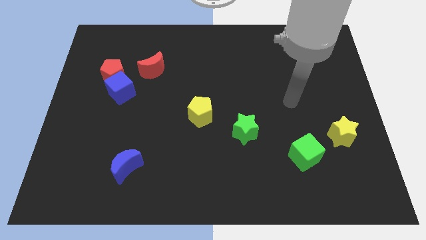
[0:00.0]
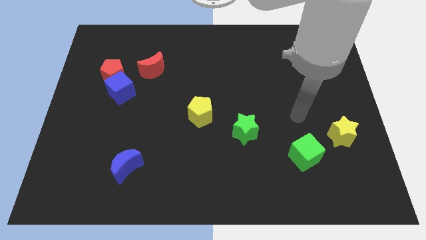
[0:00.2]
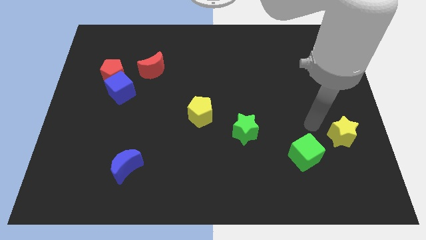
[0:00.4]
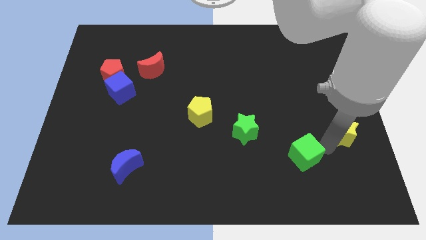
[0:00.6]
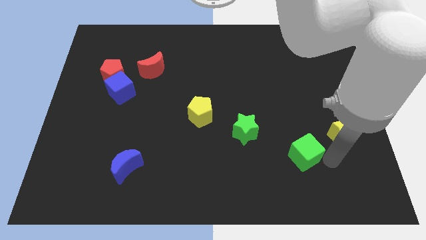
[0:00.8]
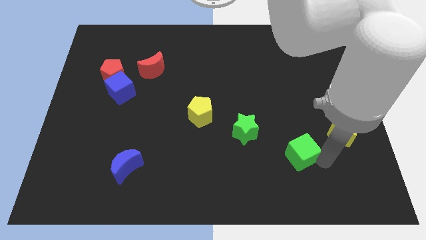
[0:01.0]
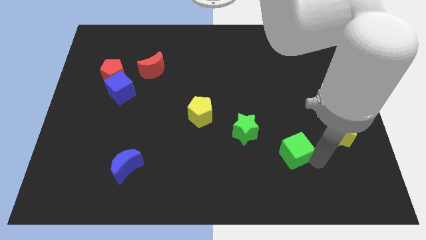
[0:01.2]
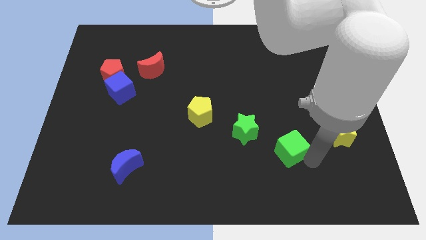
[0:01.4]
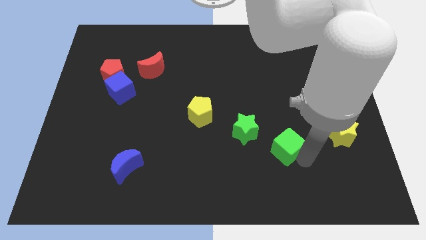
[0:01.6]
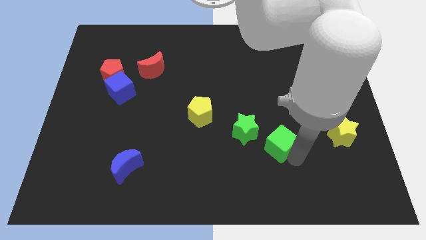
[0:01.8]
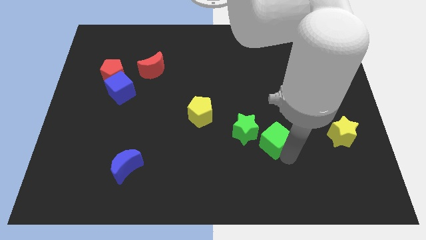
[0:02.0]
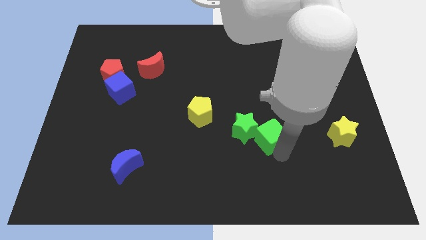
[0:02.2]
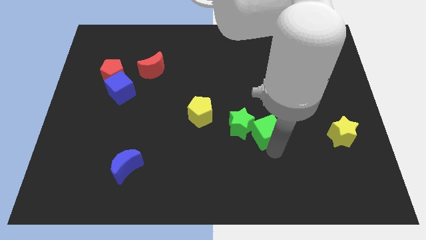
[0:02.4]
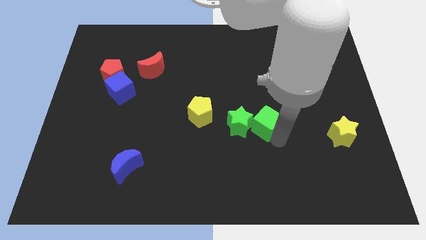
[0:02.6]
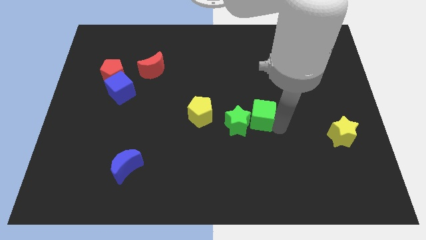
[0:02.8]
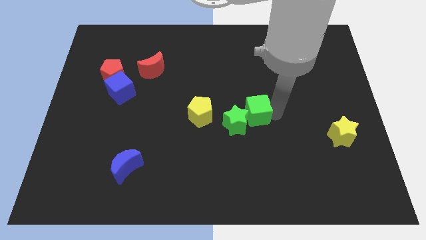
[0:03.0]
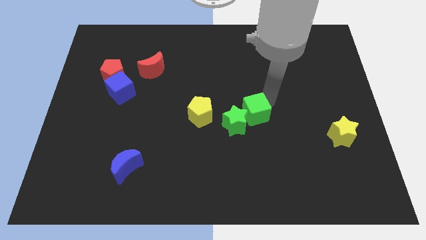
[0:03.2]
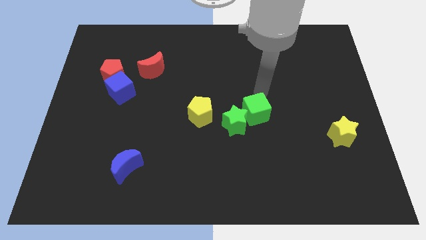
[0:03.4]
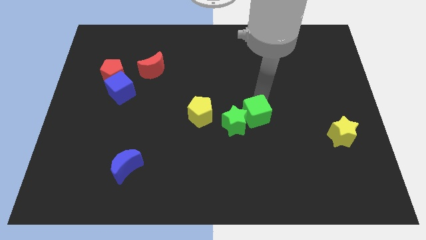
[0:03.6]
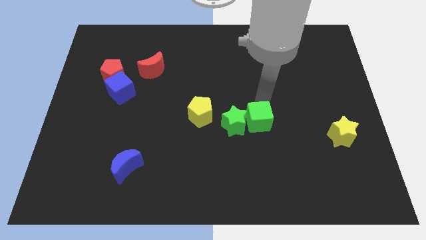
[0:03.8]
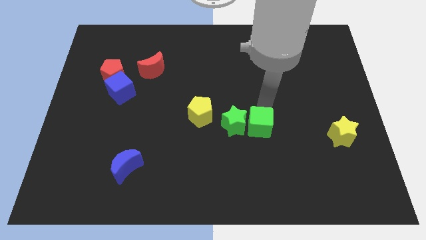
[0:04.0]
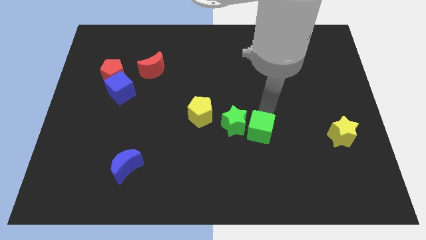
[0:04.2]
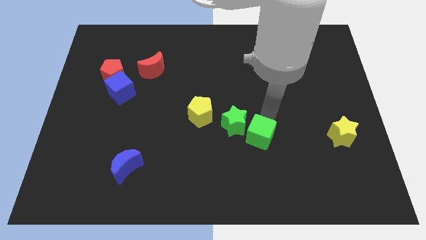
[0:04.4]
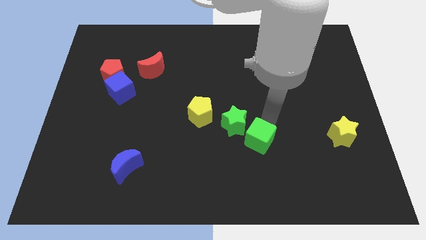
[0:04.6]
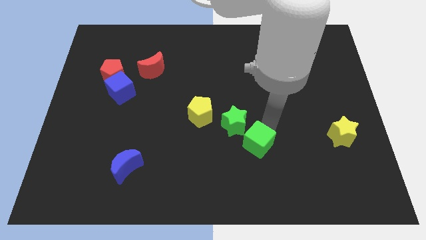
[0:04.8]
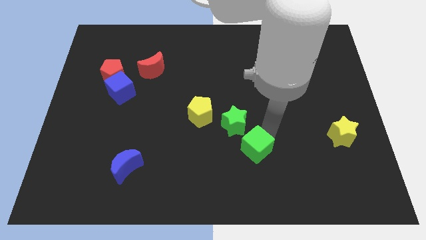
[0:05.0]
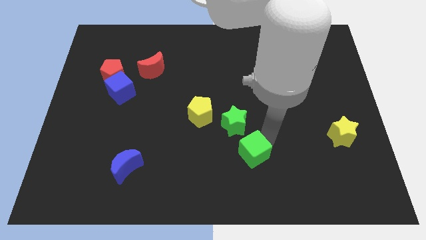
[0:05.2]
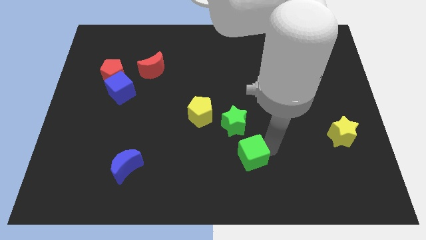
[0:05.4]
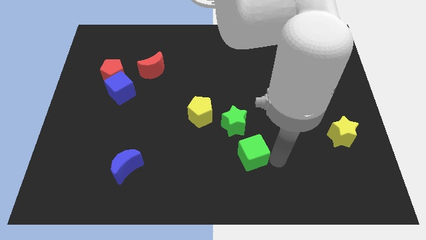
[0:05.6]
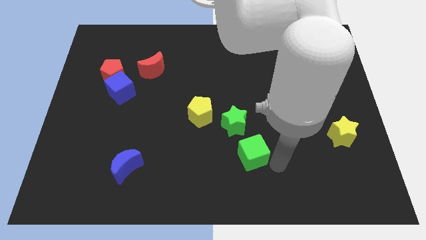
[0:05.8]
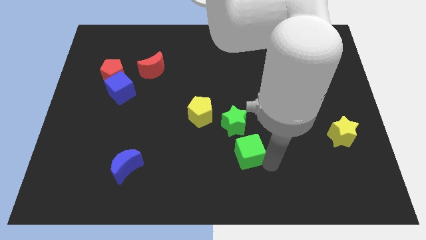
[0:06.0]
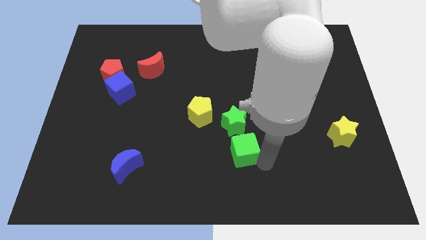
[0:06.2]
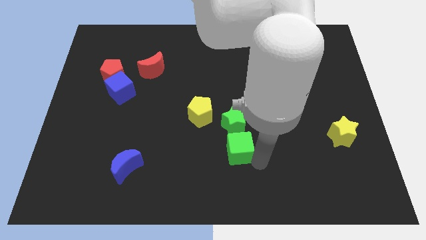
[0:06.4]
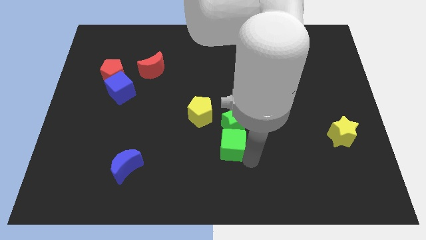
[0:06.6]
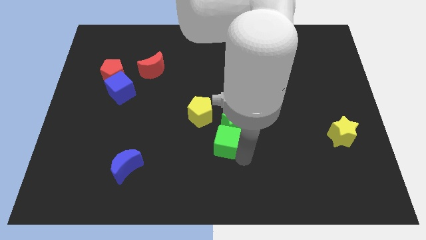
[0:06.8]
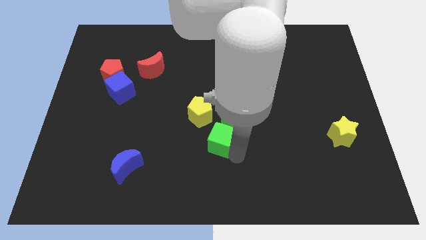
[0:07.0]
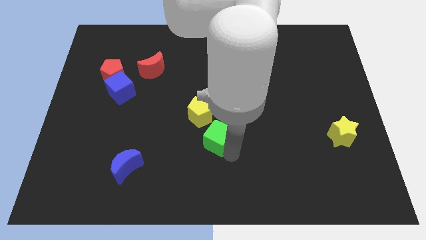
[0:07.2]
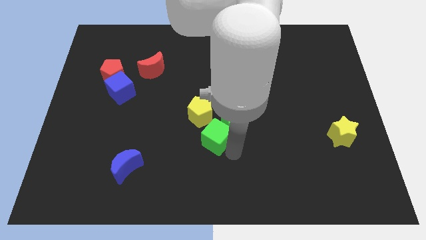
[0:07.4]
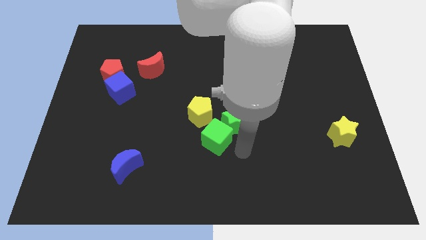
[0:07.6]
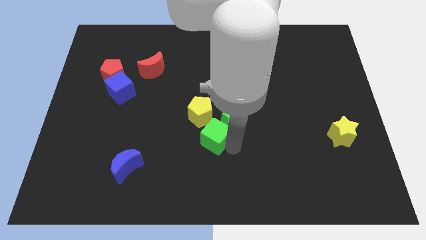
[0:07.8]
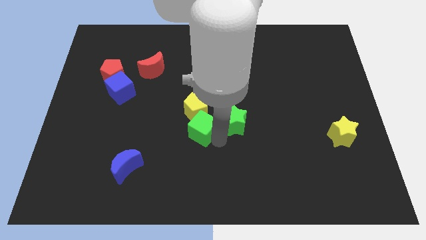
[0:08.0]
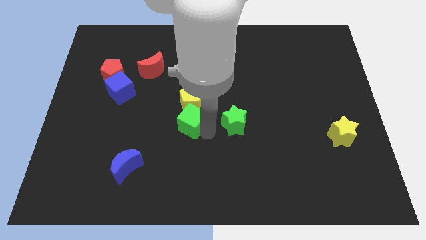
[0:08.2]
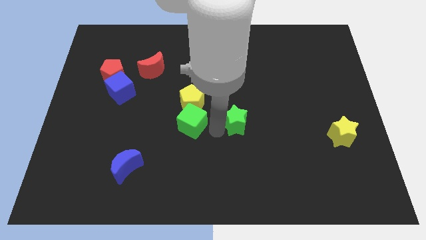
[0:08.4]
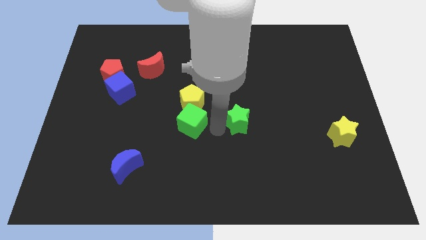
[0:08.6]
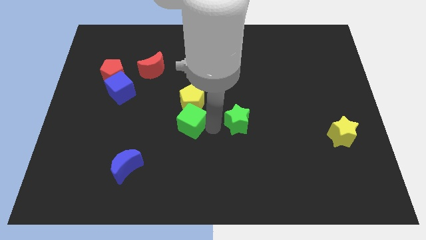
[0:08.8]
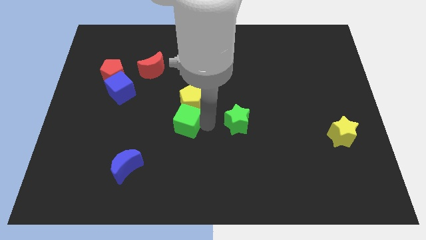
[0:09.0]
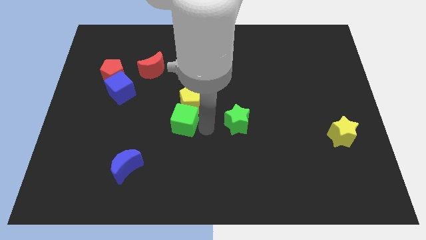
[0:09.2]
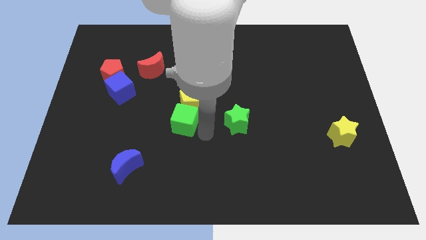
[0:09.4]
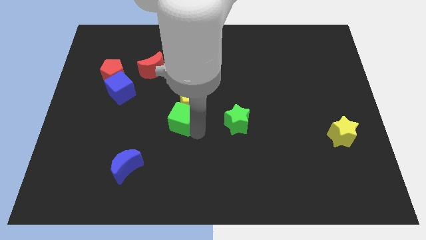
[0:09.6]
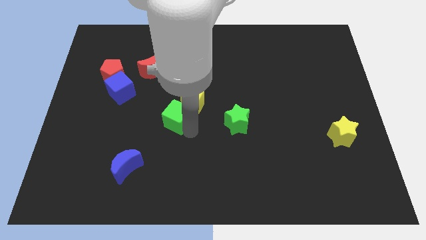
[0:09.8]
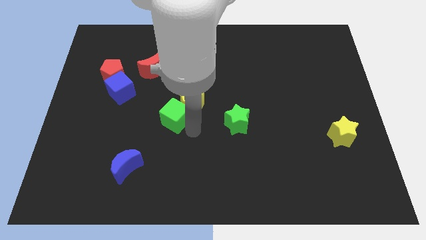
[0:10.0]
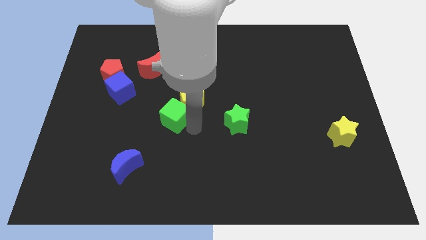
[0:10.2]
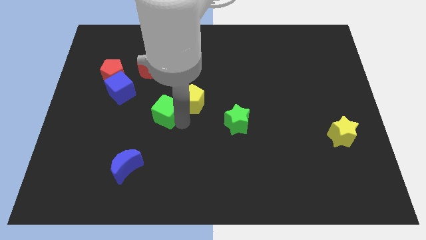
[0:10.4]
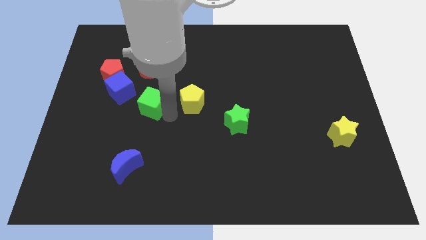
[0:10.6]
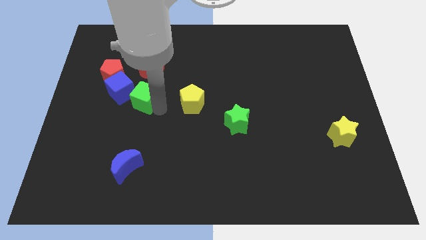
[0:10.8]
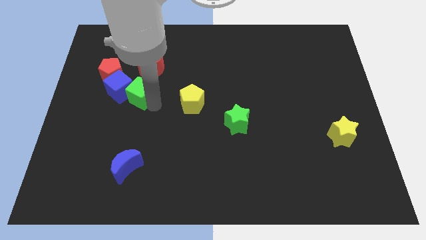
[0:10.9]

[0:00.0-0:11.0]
push the green cube close to the blue cube

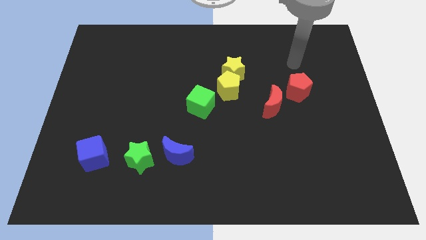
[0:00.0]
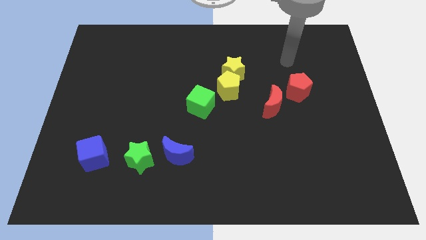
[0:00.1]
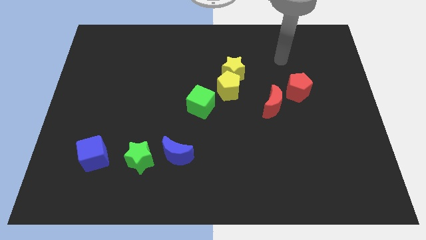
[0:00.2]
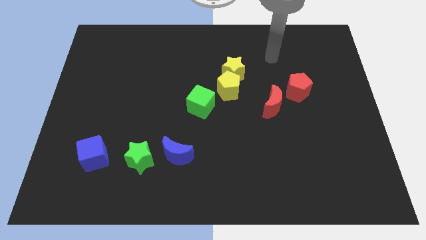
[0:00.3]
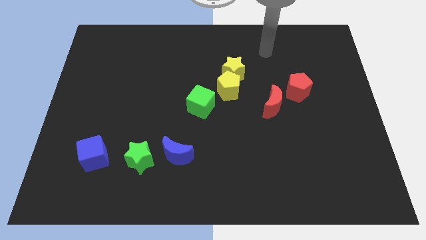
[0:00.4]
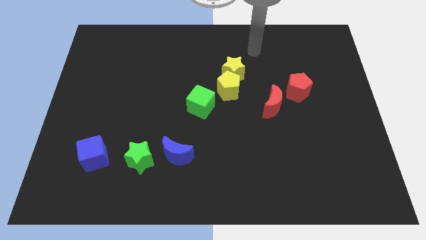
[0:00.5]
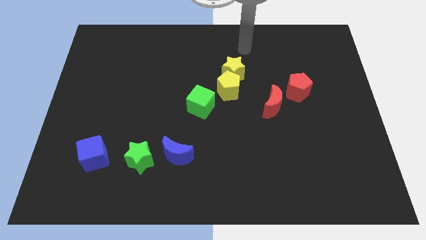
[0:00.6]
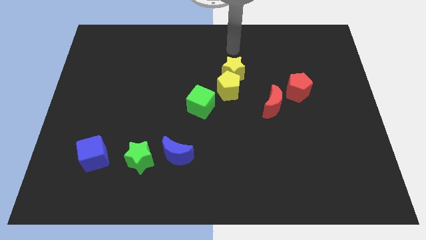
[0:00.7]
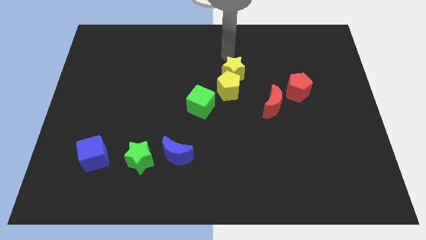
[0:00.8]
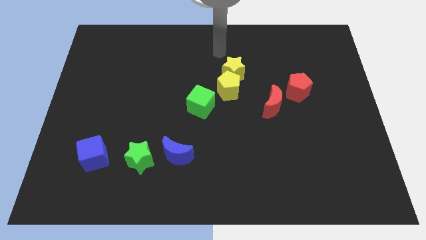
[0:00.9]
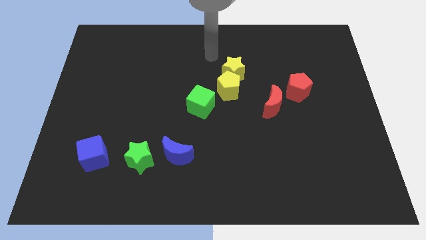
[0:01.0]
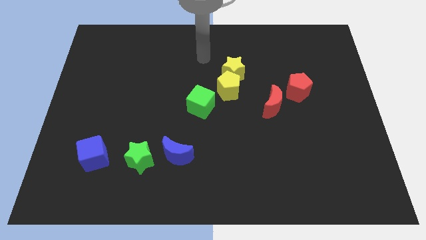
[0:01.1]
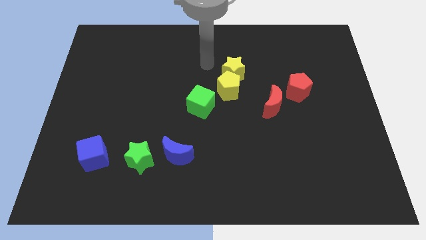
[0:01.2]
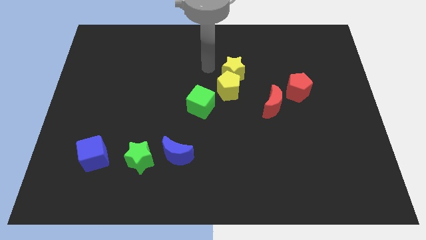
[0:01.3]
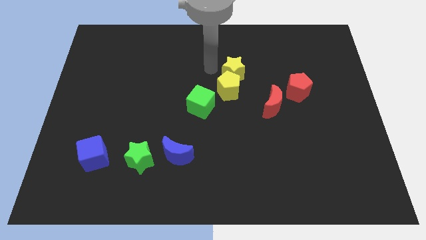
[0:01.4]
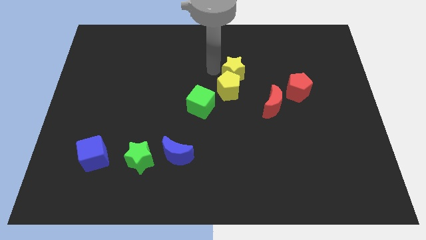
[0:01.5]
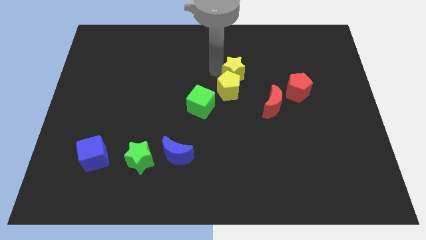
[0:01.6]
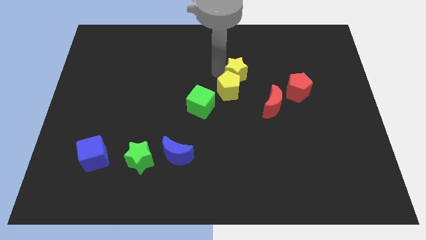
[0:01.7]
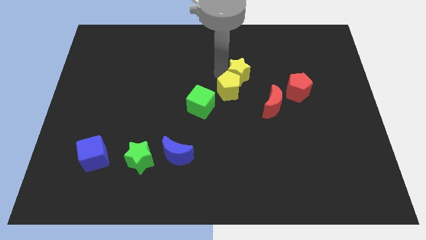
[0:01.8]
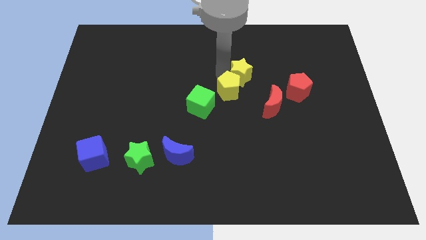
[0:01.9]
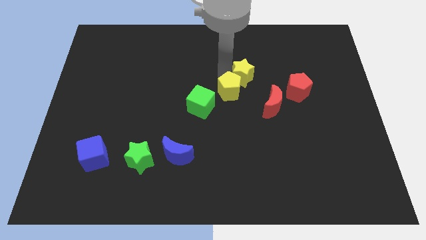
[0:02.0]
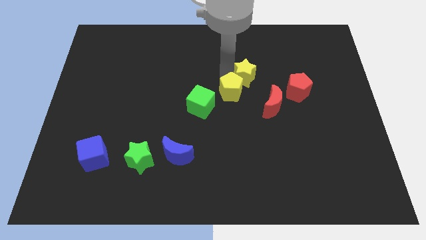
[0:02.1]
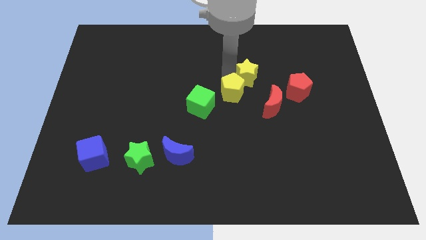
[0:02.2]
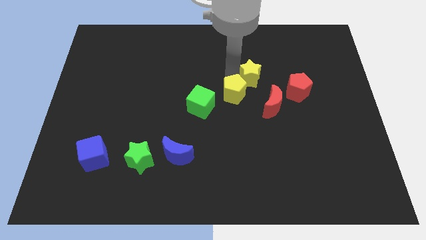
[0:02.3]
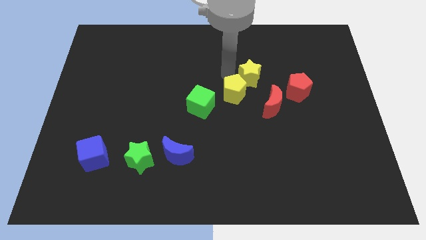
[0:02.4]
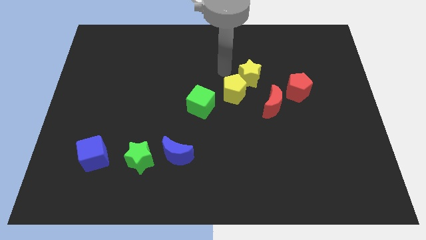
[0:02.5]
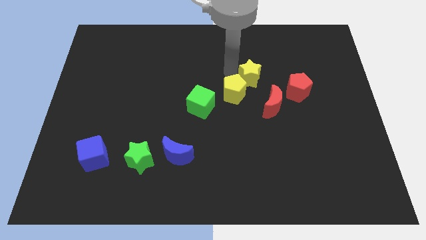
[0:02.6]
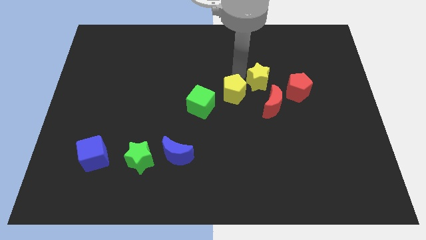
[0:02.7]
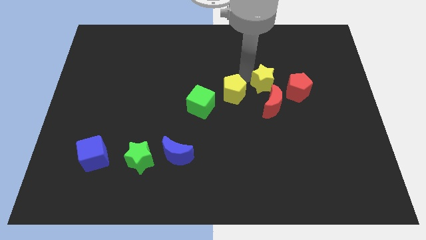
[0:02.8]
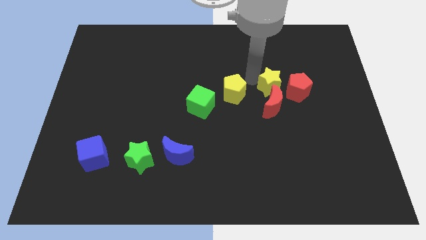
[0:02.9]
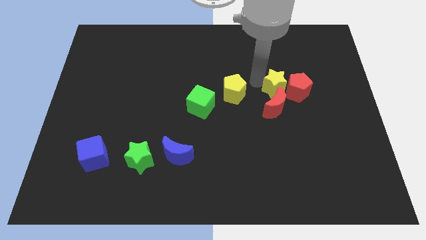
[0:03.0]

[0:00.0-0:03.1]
push the yellow star next to the red pentagon
